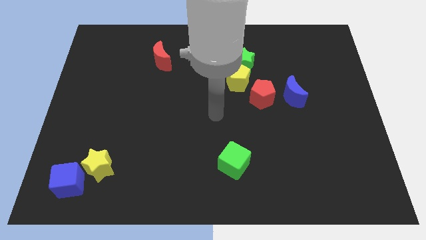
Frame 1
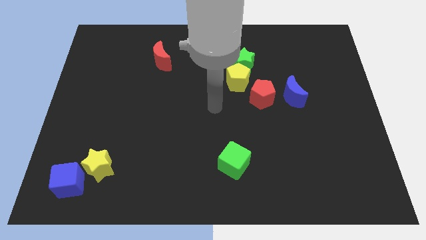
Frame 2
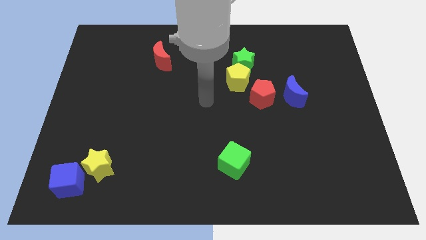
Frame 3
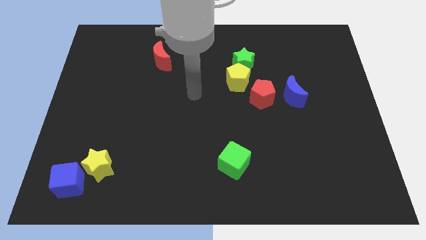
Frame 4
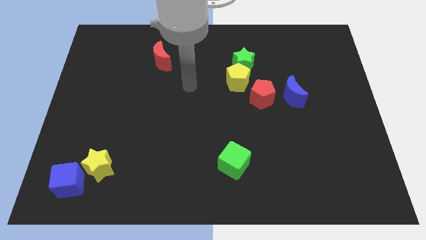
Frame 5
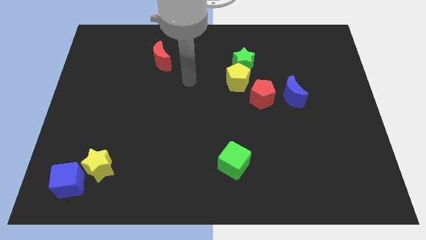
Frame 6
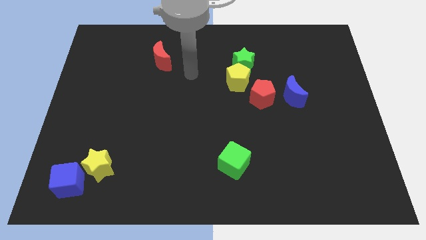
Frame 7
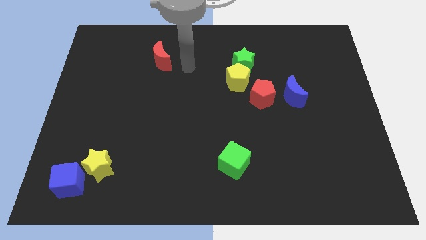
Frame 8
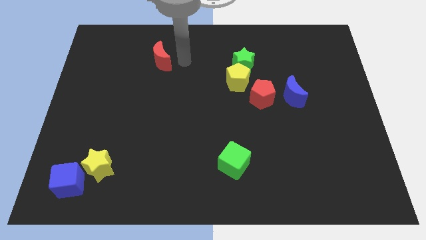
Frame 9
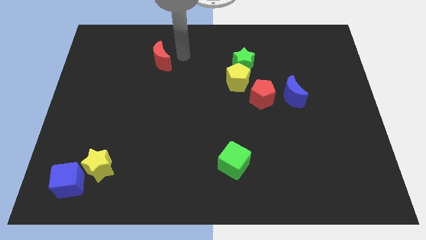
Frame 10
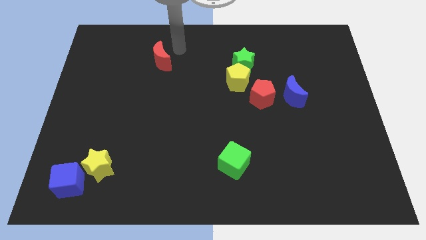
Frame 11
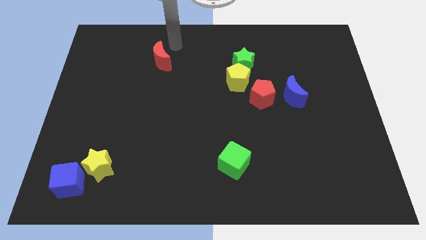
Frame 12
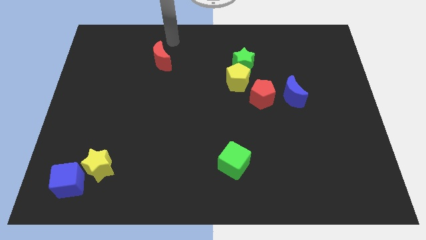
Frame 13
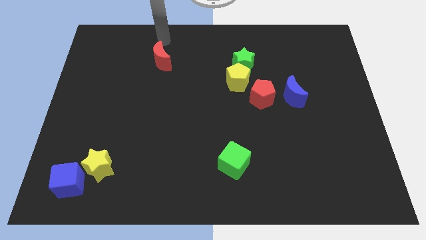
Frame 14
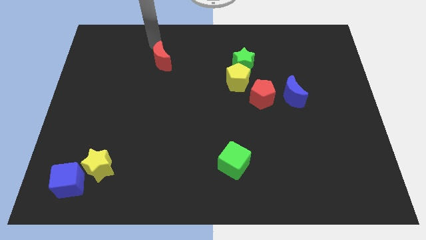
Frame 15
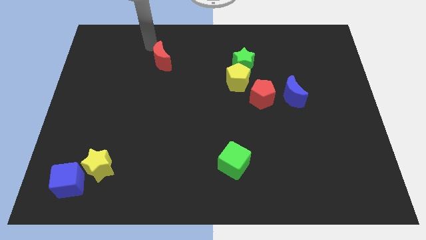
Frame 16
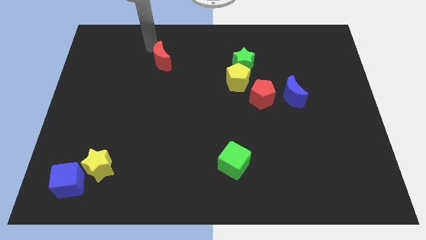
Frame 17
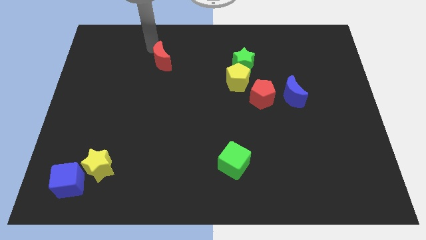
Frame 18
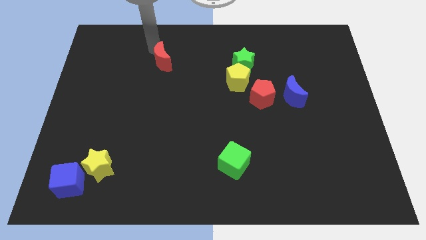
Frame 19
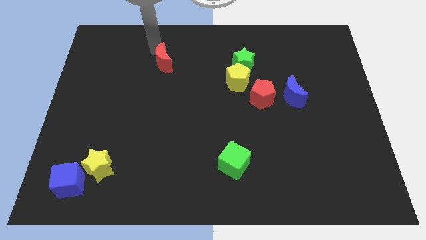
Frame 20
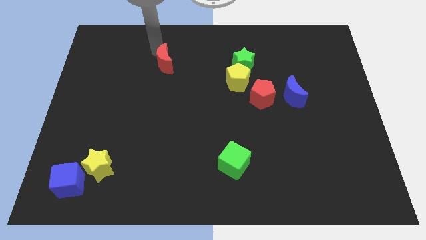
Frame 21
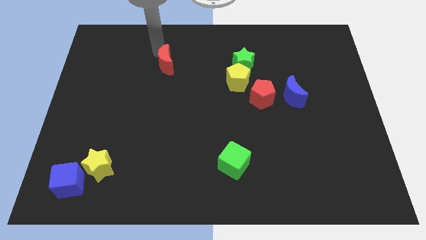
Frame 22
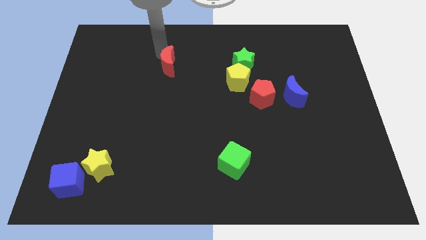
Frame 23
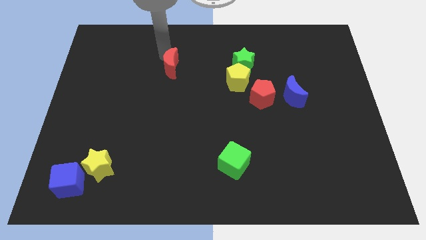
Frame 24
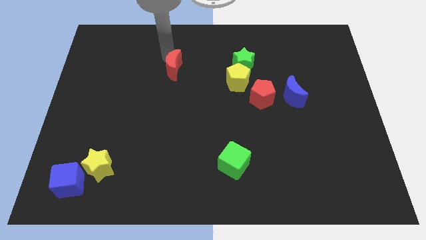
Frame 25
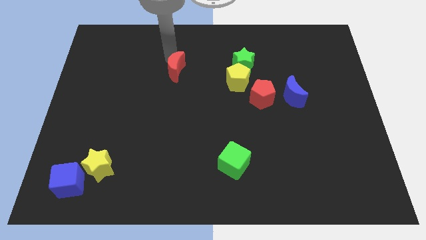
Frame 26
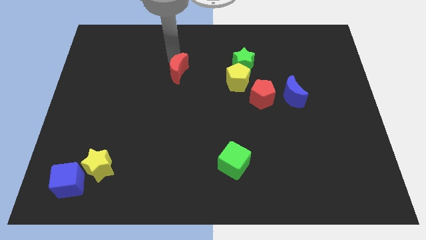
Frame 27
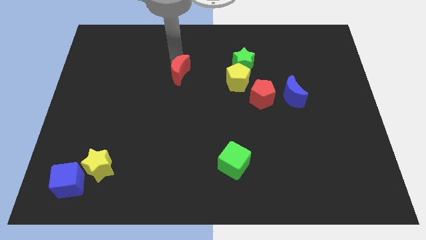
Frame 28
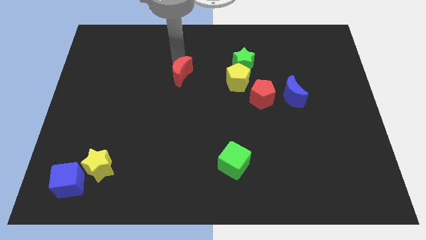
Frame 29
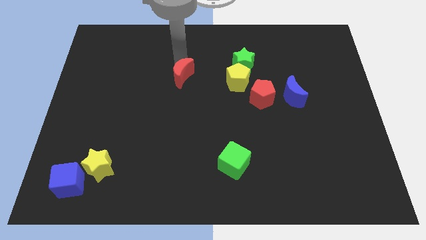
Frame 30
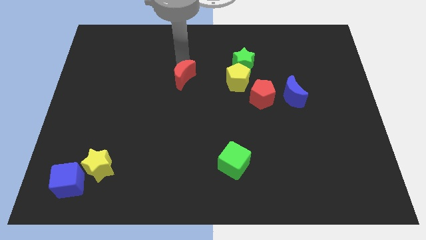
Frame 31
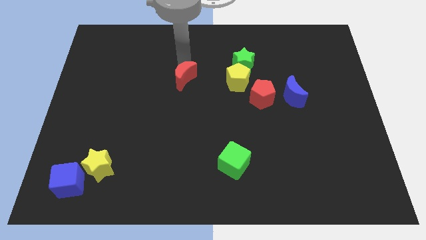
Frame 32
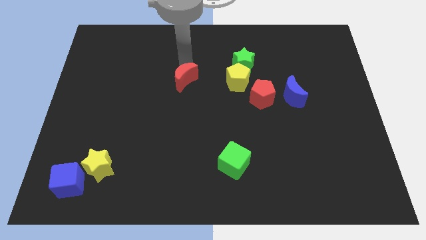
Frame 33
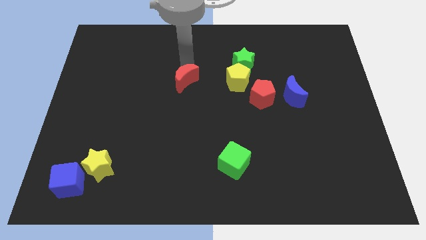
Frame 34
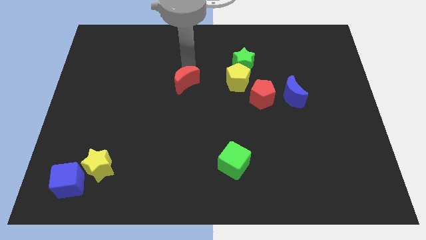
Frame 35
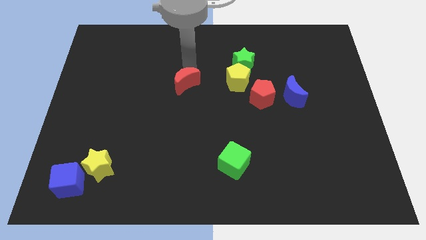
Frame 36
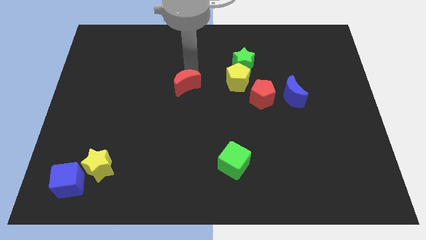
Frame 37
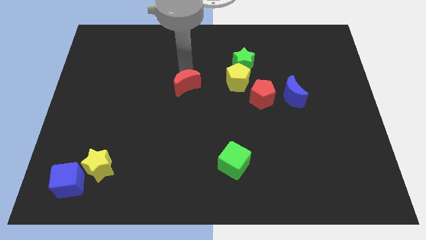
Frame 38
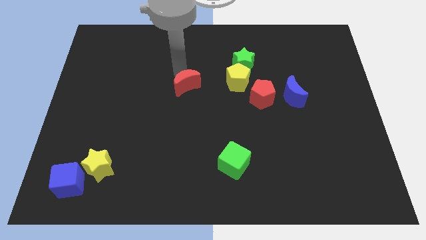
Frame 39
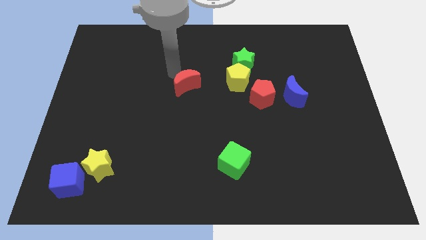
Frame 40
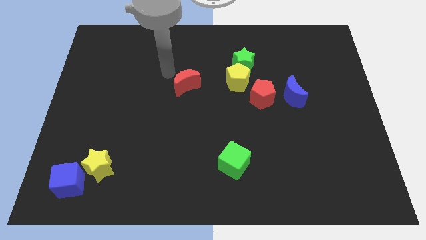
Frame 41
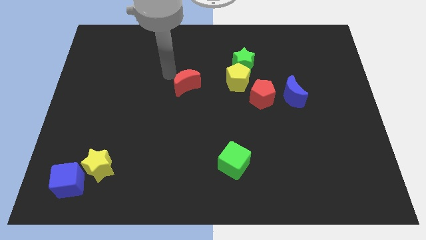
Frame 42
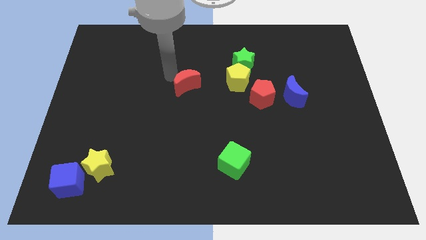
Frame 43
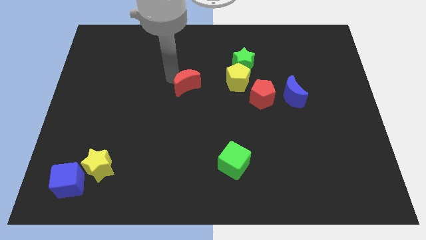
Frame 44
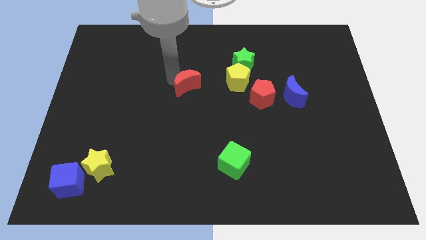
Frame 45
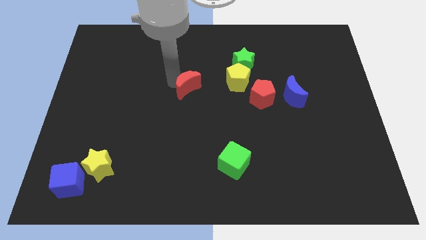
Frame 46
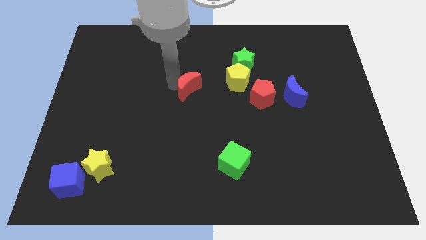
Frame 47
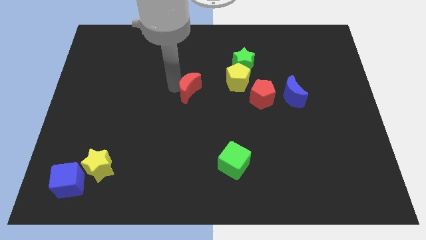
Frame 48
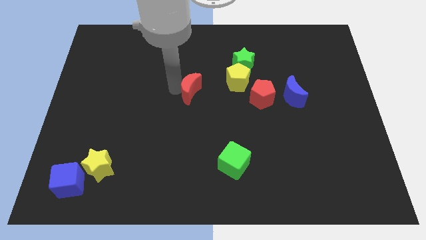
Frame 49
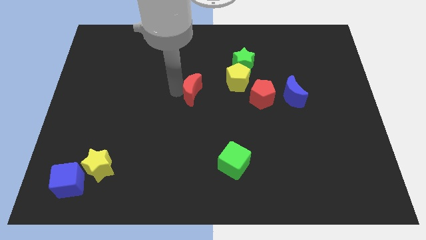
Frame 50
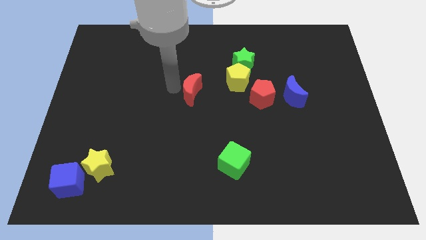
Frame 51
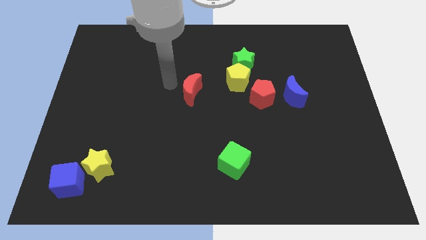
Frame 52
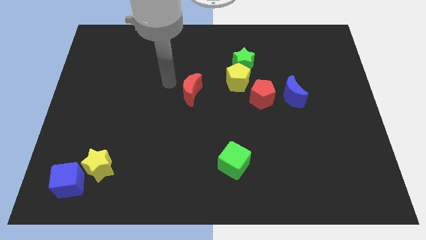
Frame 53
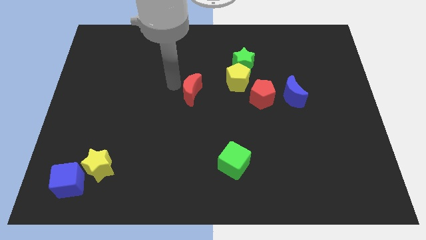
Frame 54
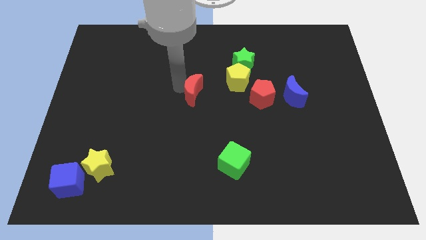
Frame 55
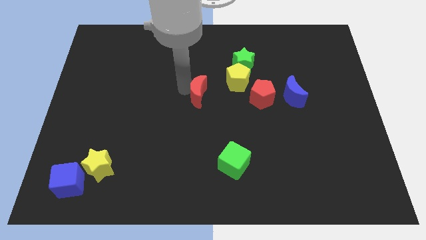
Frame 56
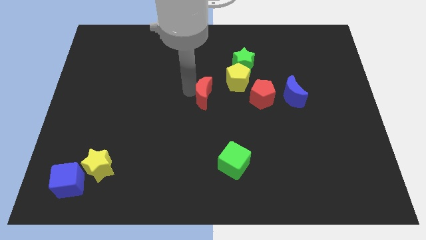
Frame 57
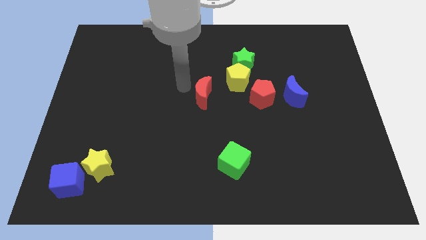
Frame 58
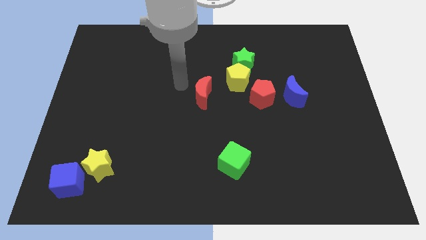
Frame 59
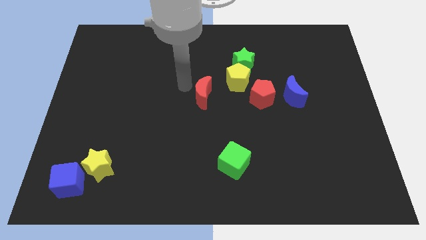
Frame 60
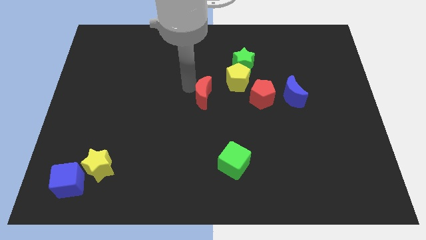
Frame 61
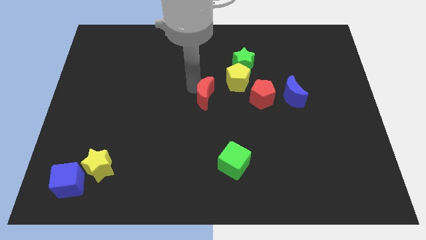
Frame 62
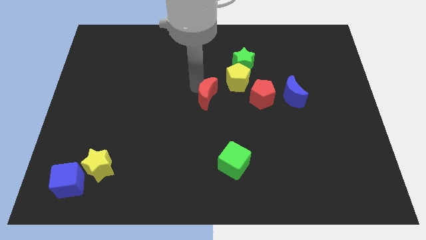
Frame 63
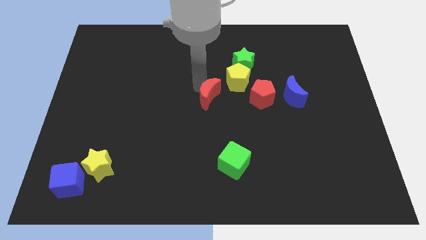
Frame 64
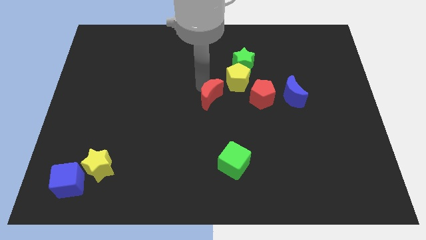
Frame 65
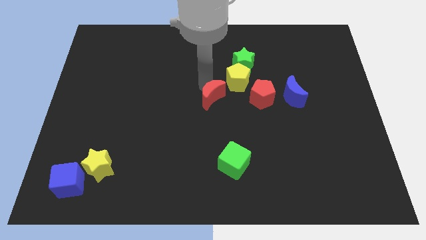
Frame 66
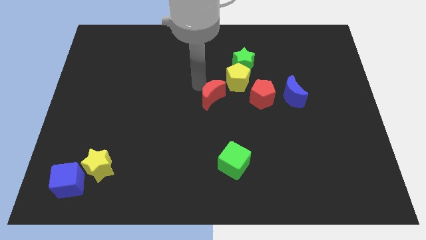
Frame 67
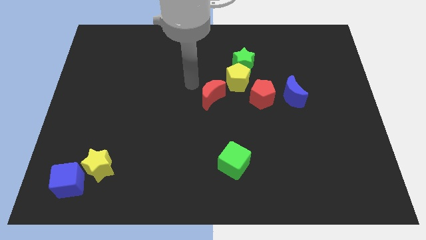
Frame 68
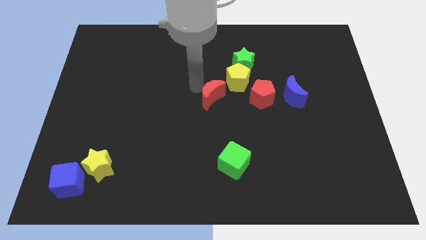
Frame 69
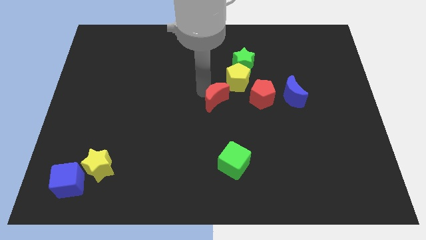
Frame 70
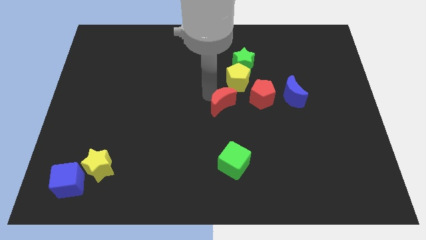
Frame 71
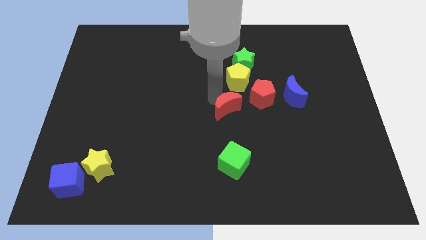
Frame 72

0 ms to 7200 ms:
put the red moon to the bottom left side of the red pentagon
